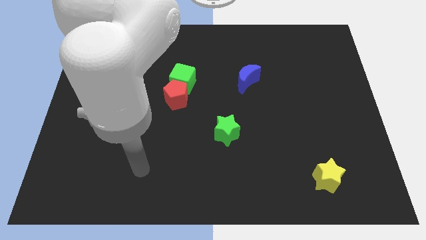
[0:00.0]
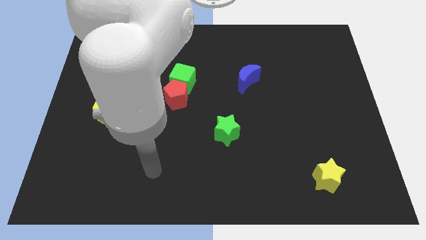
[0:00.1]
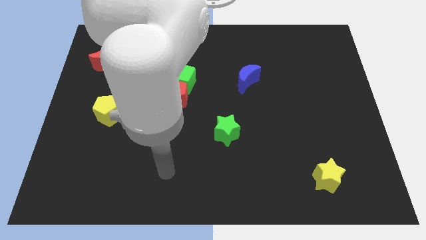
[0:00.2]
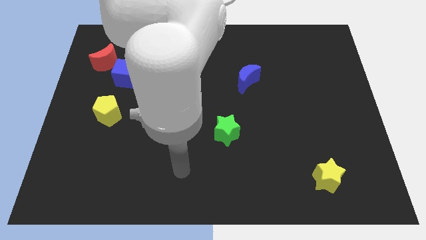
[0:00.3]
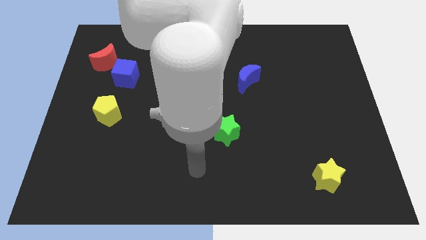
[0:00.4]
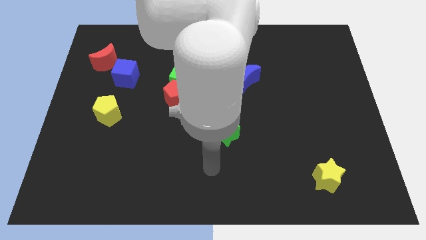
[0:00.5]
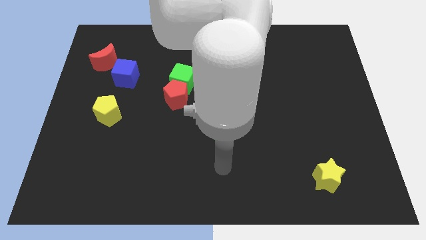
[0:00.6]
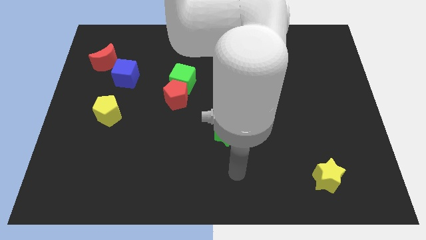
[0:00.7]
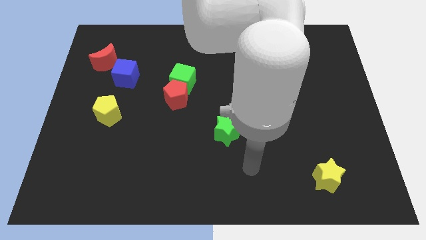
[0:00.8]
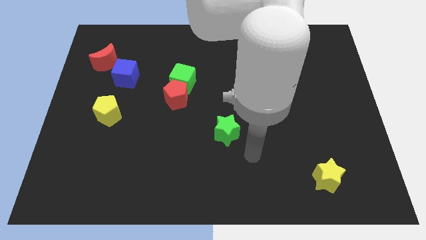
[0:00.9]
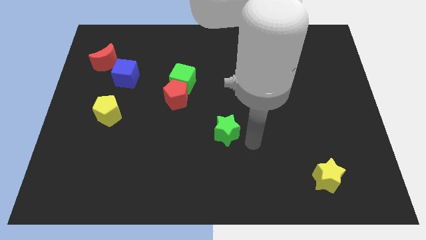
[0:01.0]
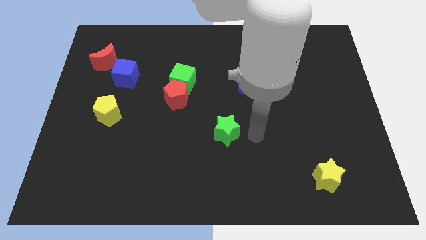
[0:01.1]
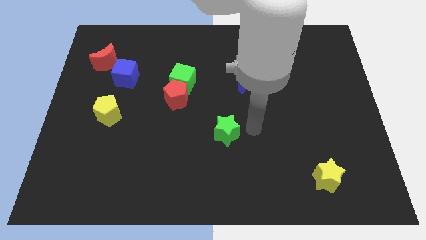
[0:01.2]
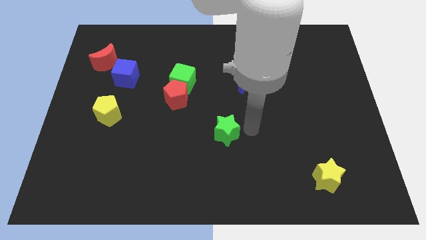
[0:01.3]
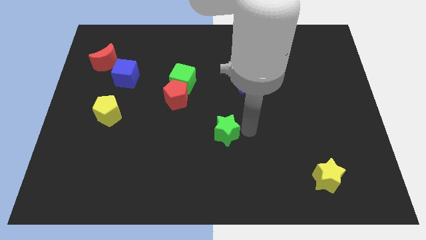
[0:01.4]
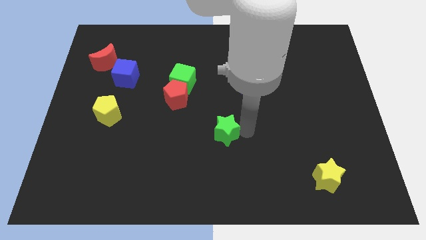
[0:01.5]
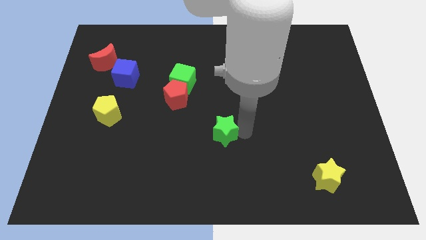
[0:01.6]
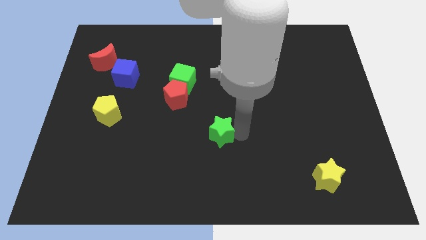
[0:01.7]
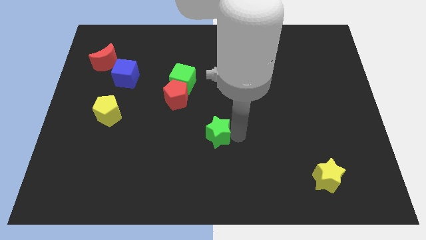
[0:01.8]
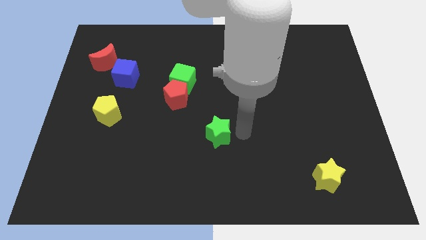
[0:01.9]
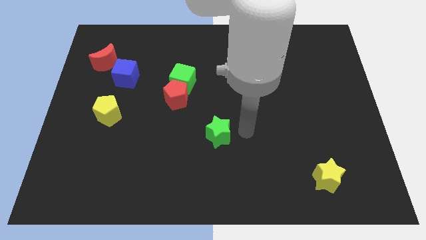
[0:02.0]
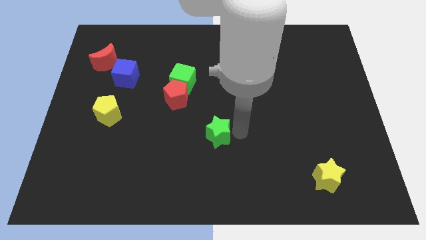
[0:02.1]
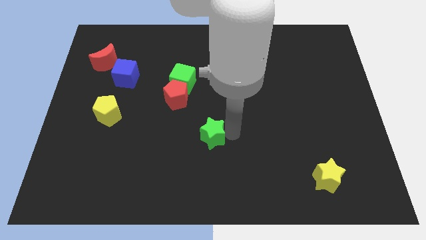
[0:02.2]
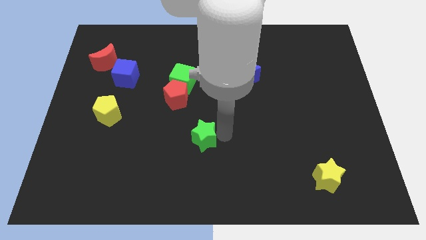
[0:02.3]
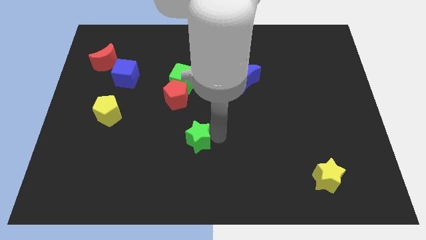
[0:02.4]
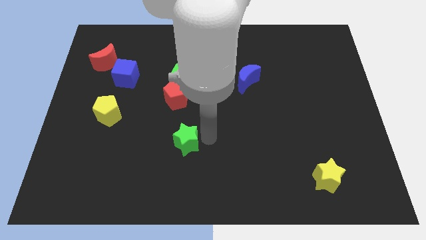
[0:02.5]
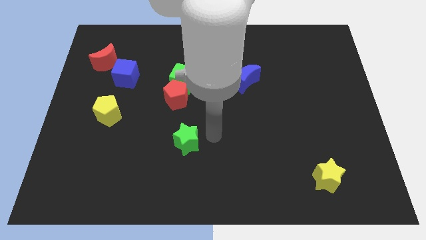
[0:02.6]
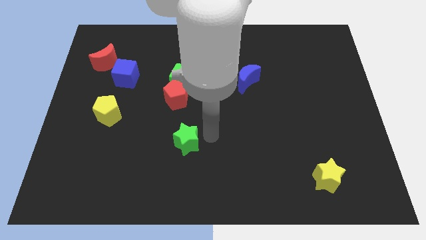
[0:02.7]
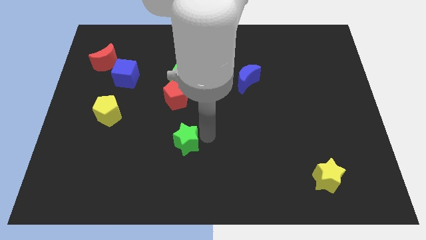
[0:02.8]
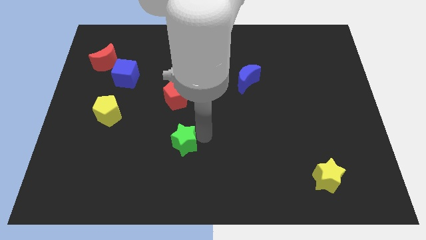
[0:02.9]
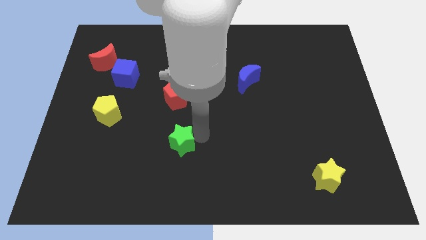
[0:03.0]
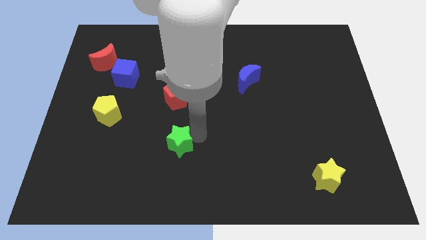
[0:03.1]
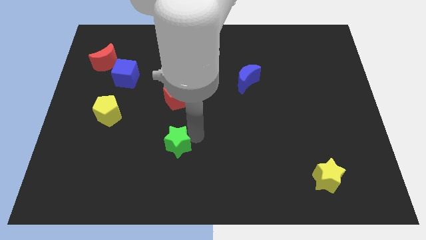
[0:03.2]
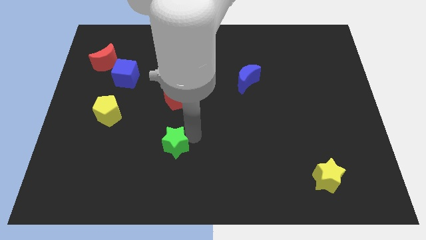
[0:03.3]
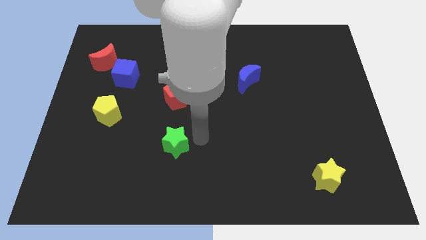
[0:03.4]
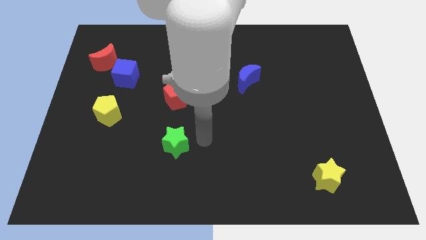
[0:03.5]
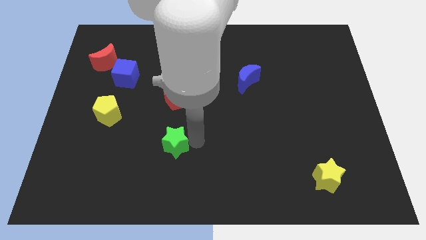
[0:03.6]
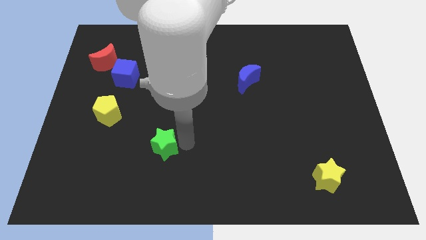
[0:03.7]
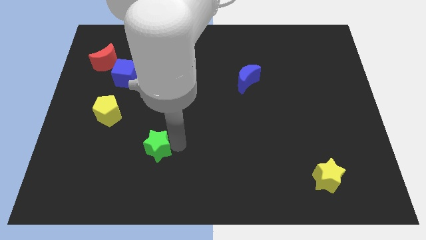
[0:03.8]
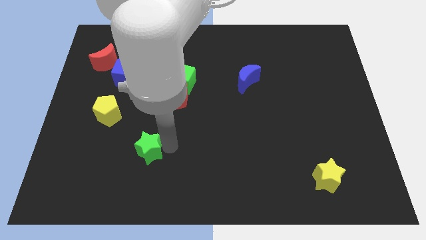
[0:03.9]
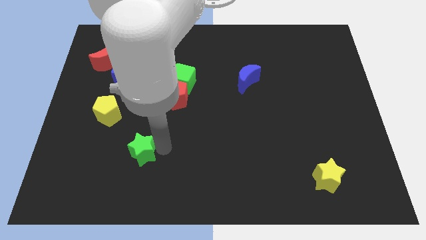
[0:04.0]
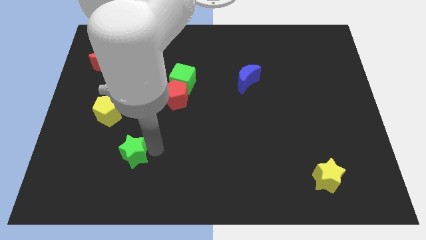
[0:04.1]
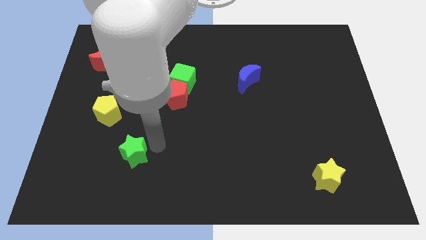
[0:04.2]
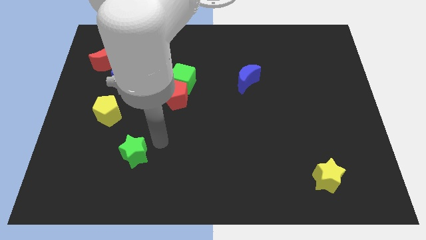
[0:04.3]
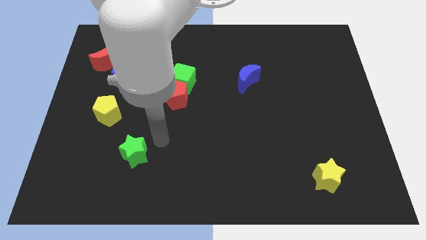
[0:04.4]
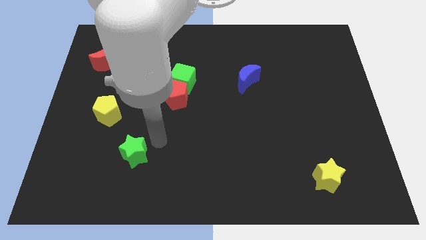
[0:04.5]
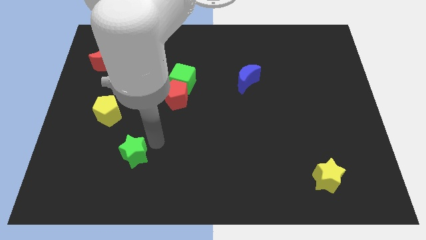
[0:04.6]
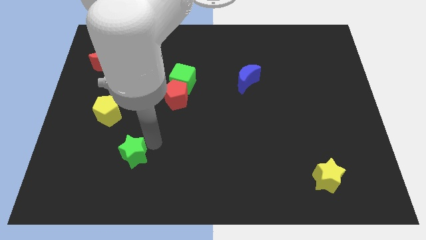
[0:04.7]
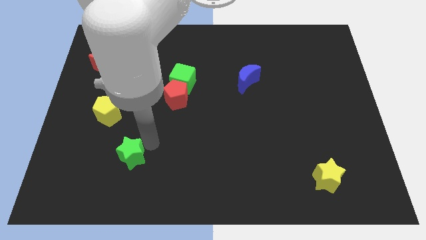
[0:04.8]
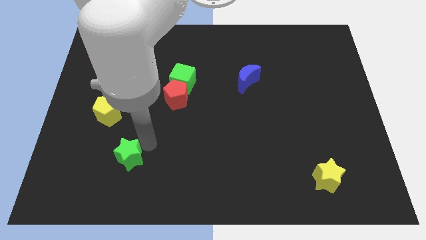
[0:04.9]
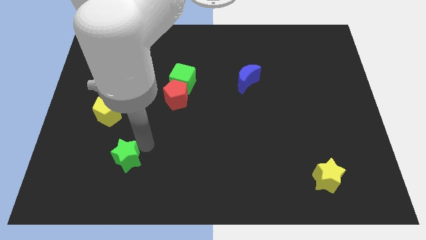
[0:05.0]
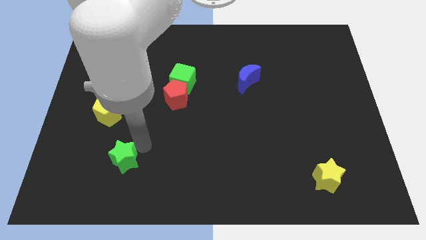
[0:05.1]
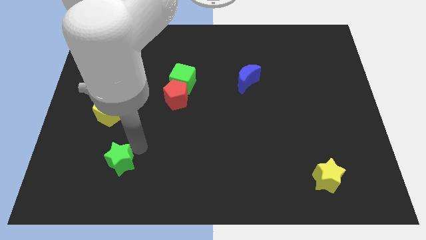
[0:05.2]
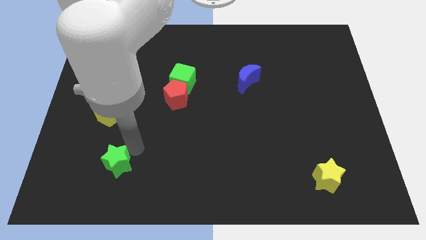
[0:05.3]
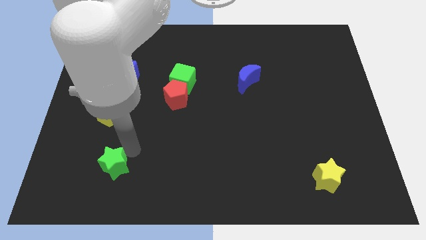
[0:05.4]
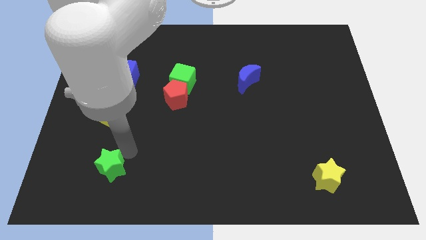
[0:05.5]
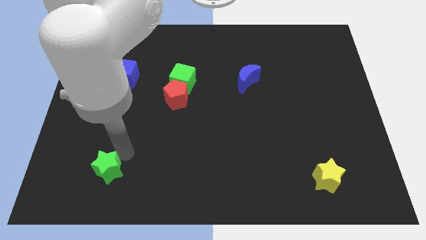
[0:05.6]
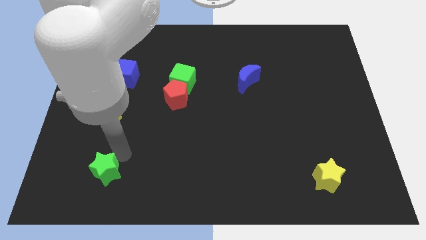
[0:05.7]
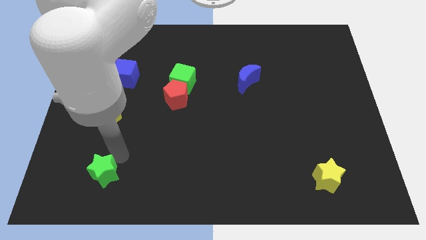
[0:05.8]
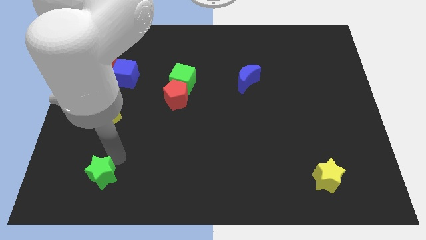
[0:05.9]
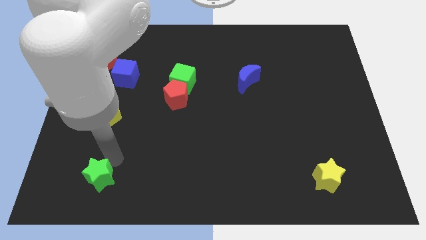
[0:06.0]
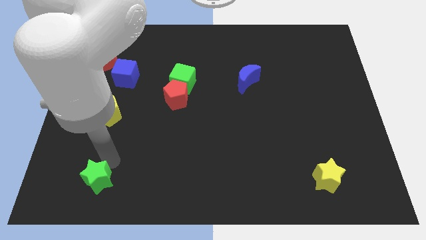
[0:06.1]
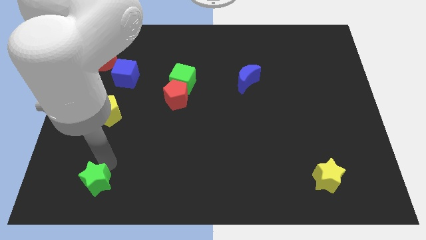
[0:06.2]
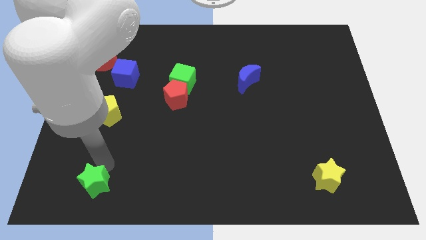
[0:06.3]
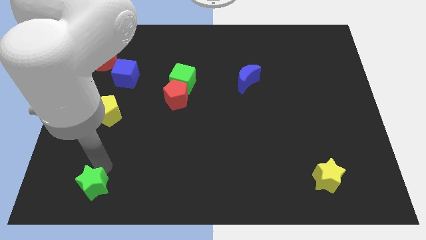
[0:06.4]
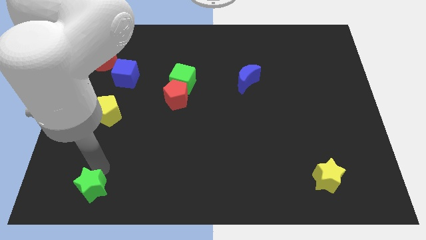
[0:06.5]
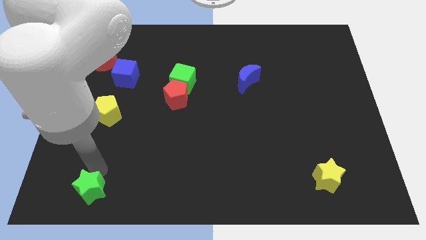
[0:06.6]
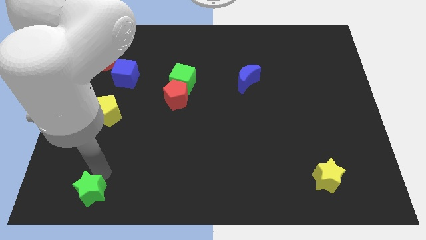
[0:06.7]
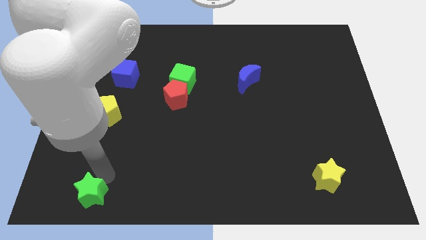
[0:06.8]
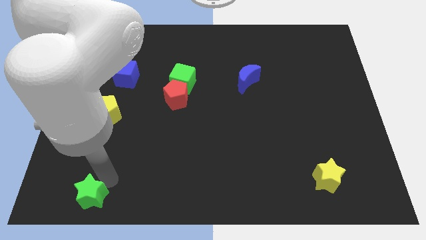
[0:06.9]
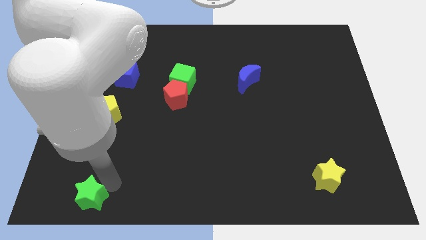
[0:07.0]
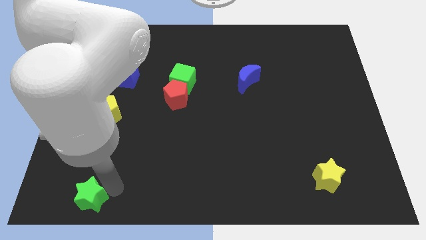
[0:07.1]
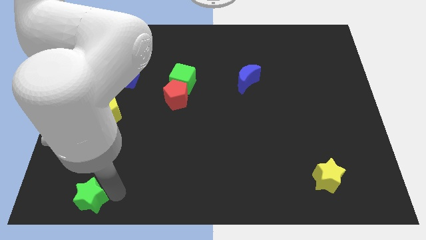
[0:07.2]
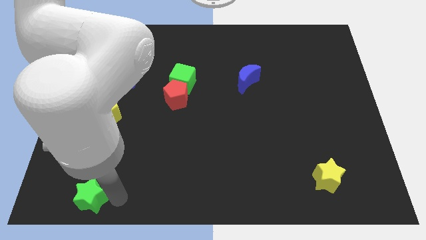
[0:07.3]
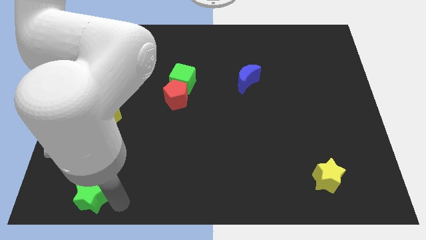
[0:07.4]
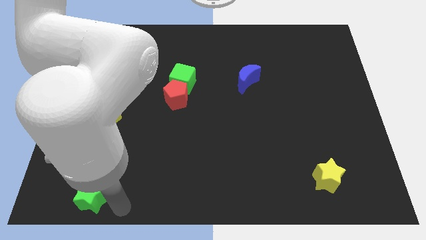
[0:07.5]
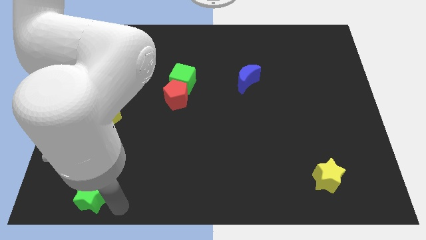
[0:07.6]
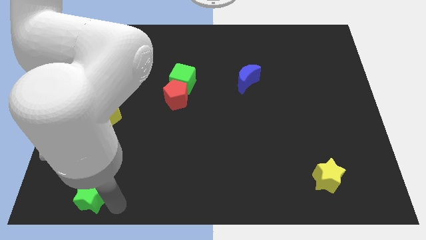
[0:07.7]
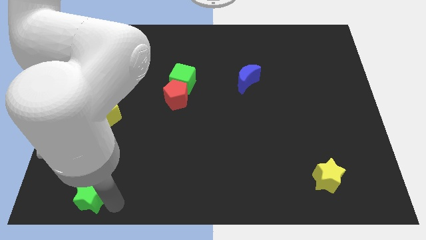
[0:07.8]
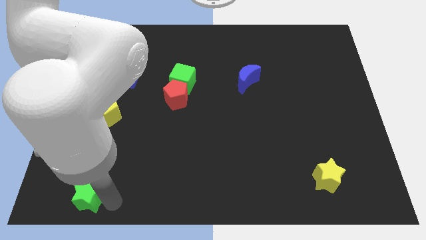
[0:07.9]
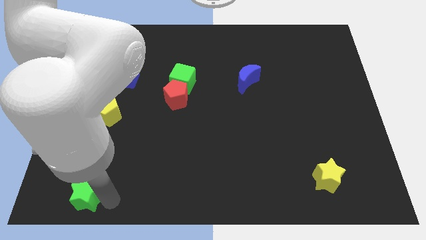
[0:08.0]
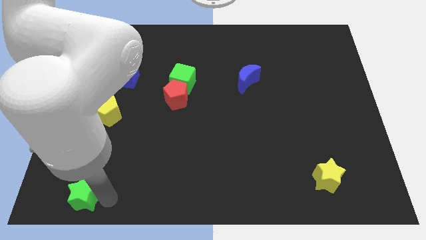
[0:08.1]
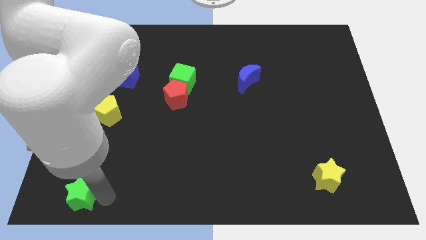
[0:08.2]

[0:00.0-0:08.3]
push the green star to the bottom left of the board
